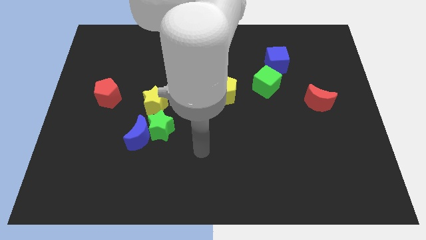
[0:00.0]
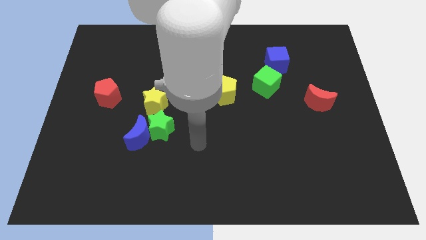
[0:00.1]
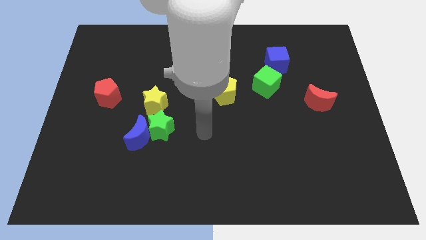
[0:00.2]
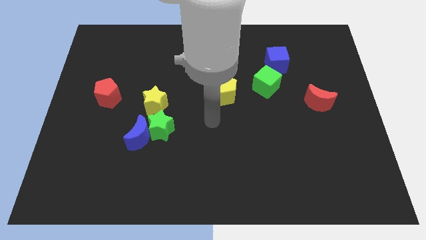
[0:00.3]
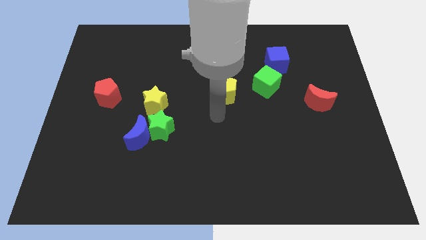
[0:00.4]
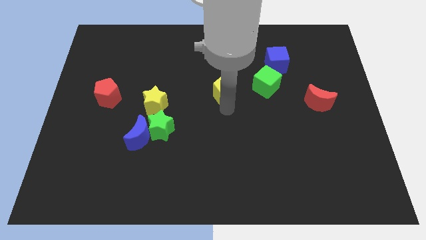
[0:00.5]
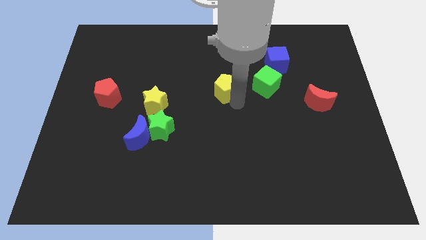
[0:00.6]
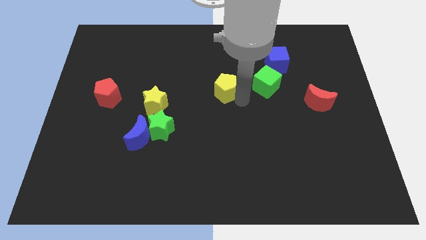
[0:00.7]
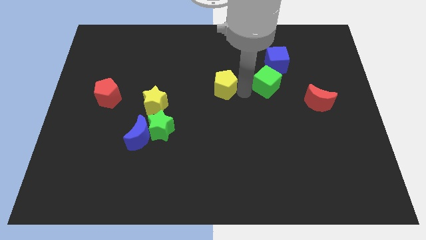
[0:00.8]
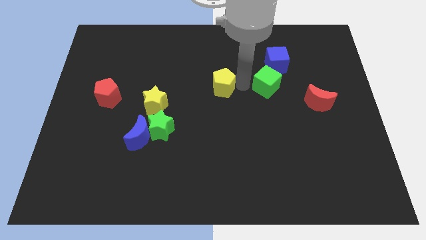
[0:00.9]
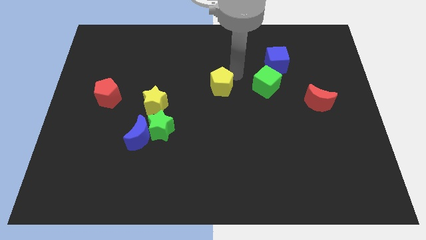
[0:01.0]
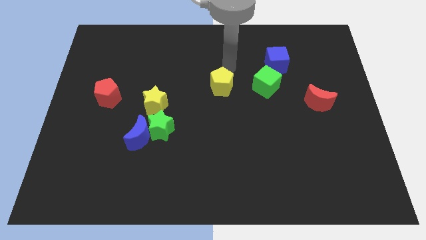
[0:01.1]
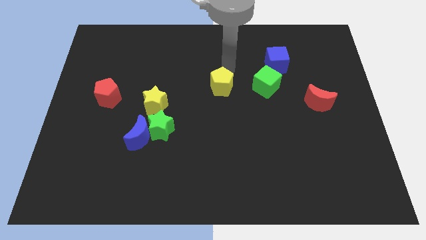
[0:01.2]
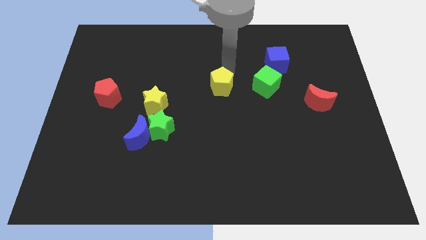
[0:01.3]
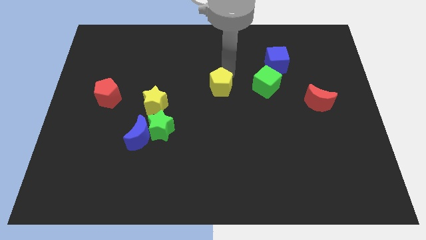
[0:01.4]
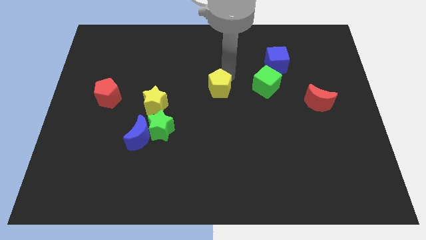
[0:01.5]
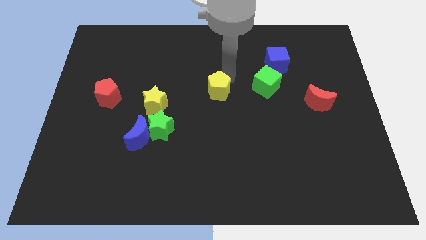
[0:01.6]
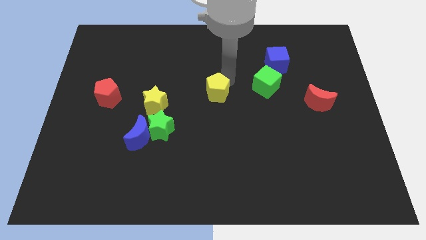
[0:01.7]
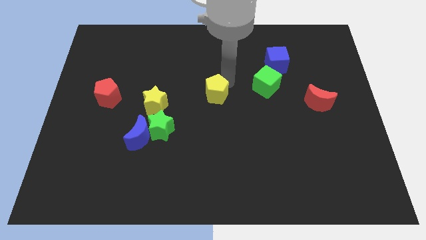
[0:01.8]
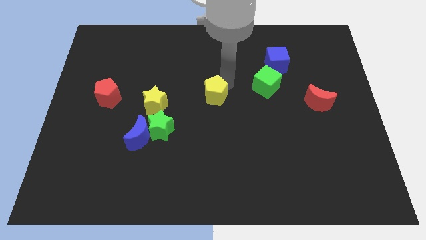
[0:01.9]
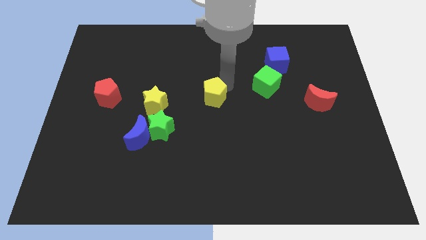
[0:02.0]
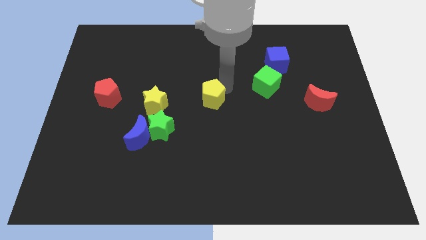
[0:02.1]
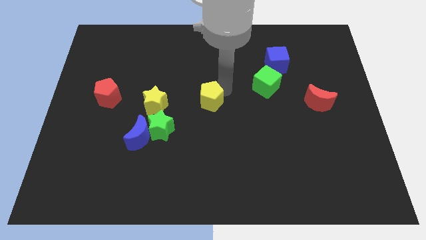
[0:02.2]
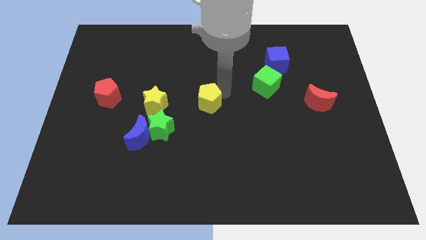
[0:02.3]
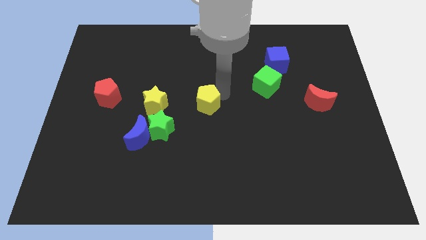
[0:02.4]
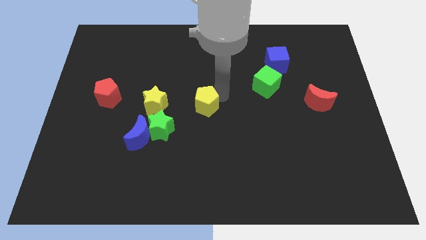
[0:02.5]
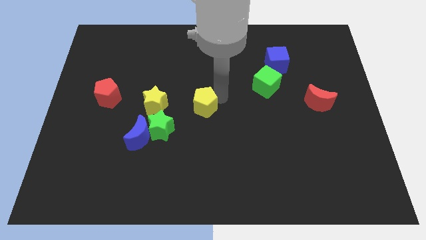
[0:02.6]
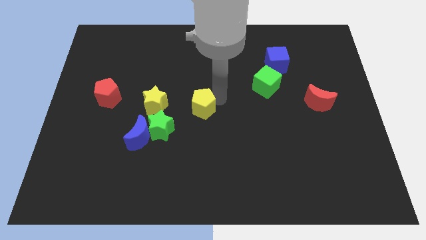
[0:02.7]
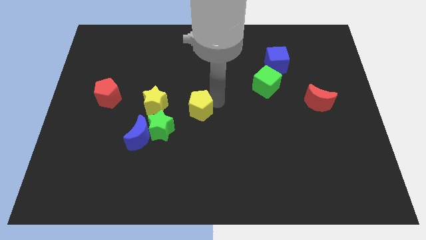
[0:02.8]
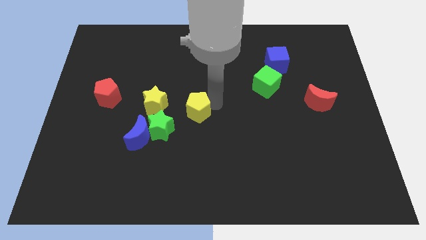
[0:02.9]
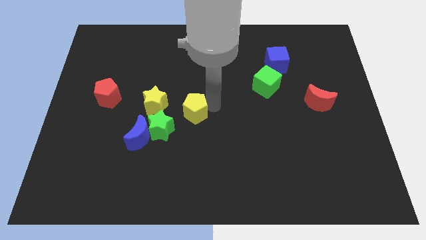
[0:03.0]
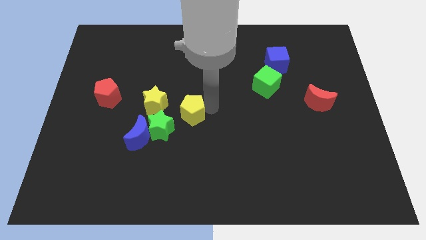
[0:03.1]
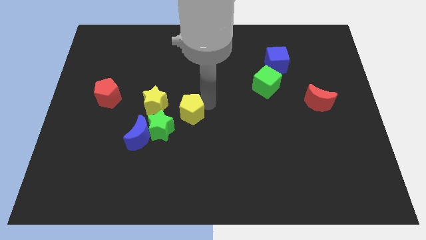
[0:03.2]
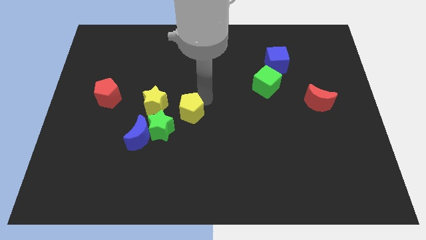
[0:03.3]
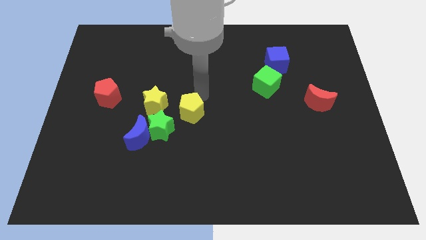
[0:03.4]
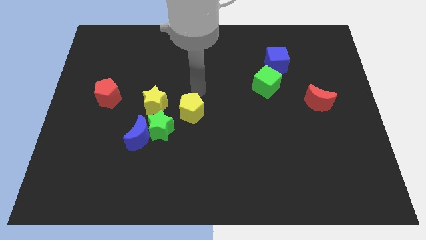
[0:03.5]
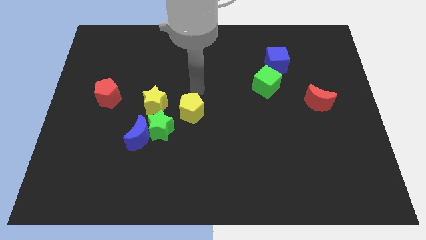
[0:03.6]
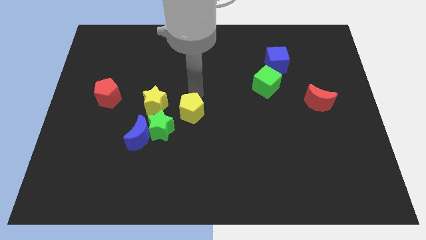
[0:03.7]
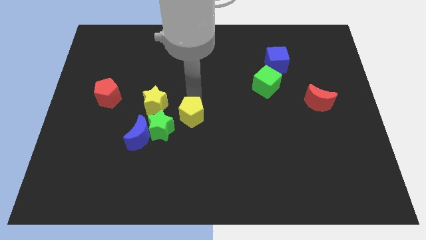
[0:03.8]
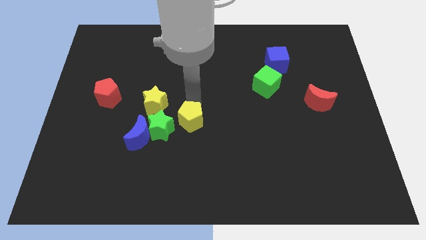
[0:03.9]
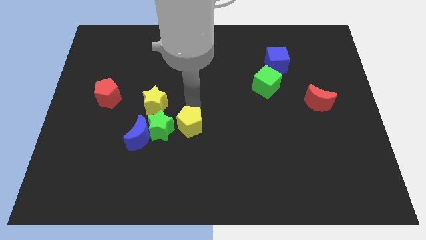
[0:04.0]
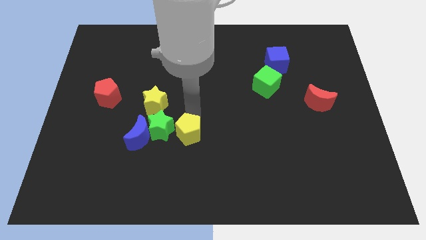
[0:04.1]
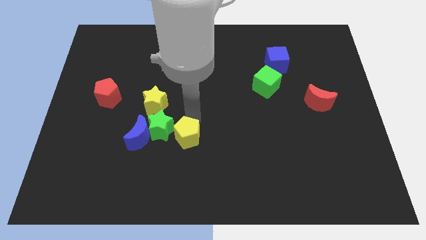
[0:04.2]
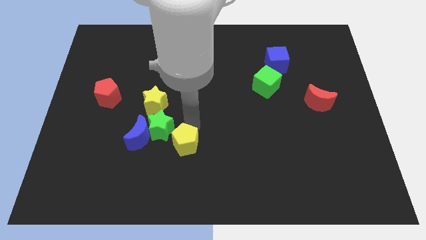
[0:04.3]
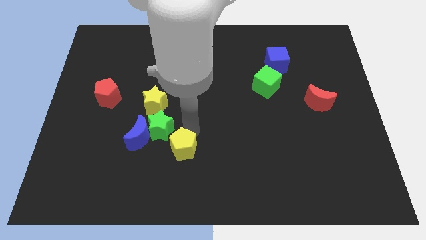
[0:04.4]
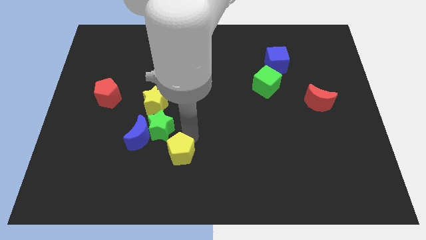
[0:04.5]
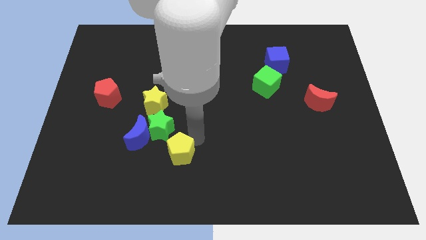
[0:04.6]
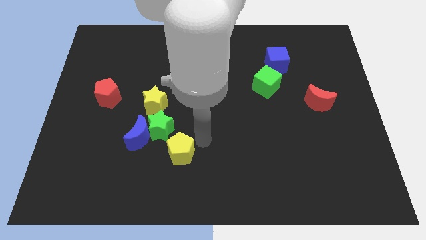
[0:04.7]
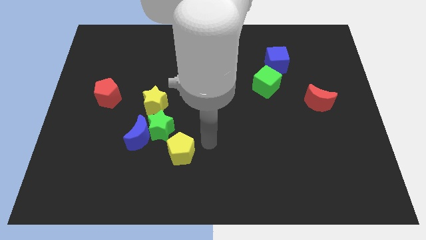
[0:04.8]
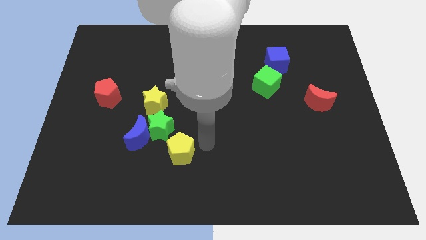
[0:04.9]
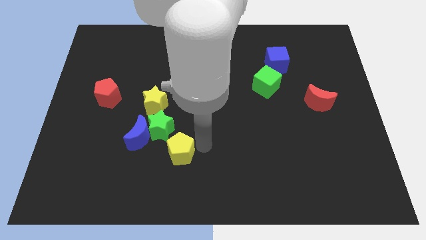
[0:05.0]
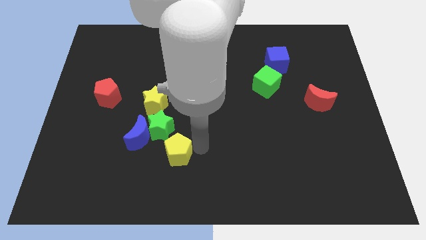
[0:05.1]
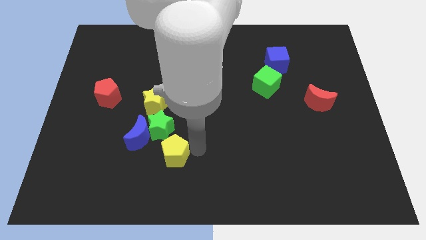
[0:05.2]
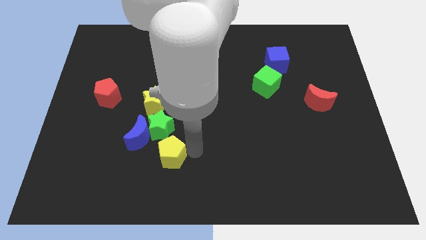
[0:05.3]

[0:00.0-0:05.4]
push the yellow pentagon downwards and left diagonally

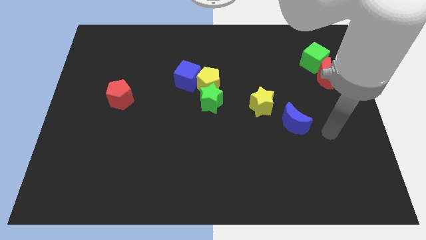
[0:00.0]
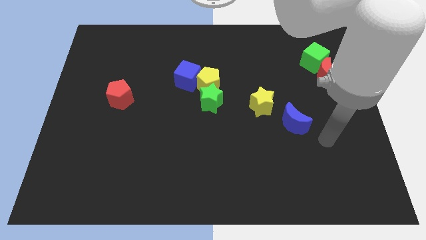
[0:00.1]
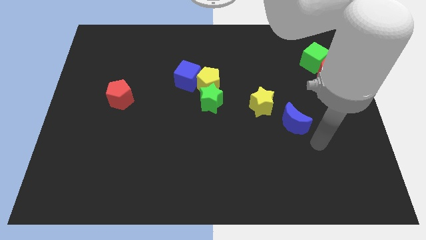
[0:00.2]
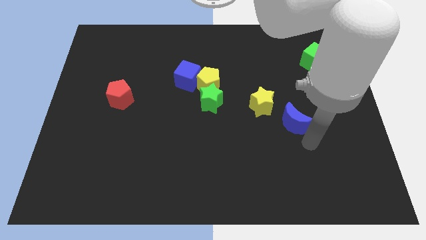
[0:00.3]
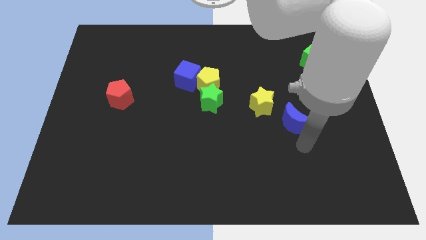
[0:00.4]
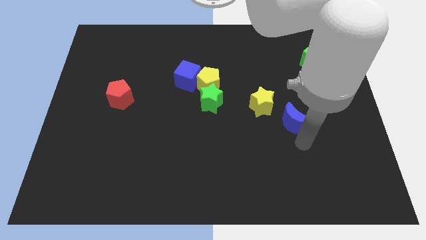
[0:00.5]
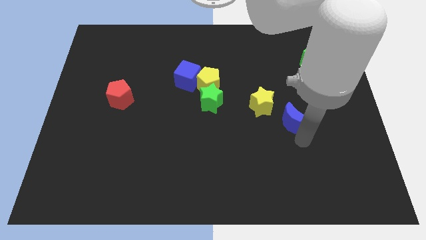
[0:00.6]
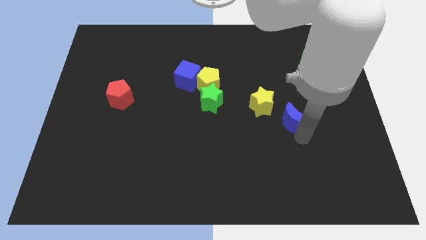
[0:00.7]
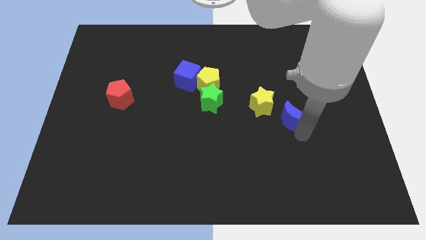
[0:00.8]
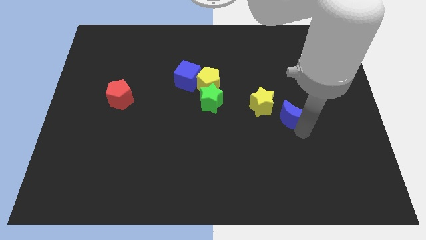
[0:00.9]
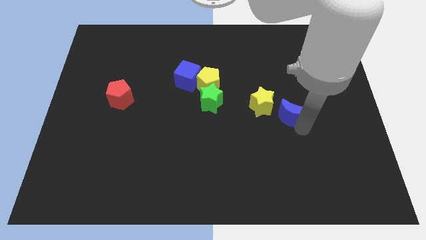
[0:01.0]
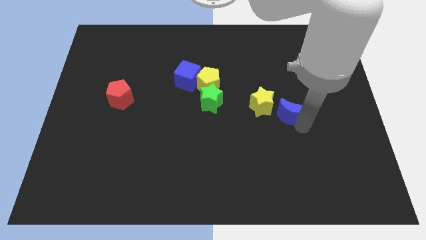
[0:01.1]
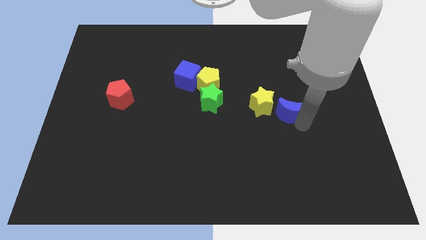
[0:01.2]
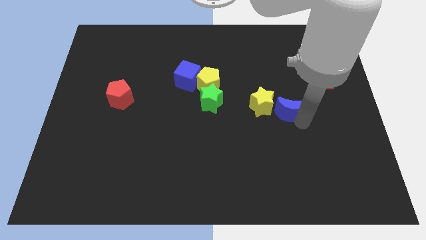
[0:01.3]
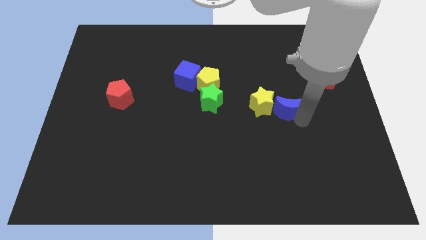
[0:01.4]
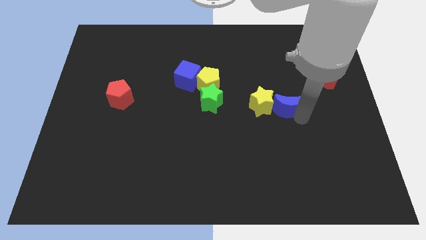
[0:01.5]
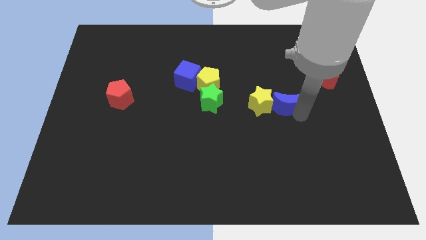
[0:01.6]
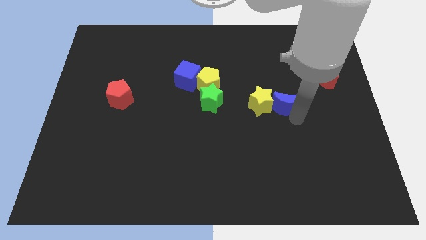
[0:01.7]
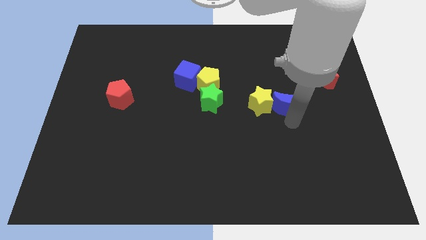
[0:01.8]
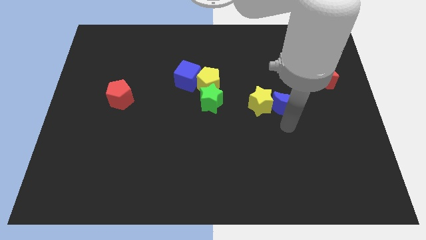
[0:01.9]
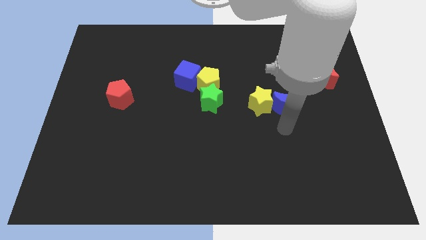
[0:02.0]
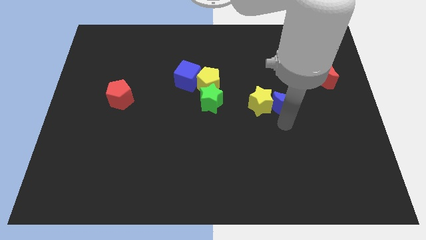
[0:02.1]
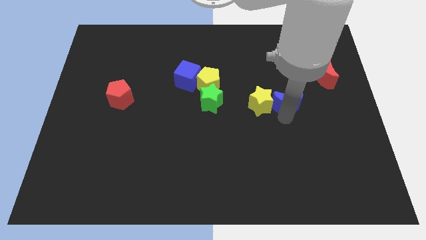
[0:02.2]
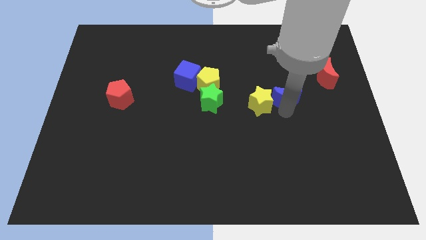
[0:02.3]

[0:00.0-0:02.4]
push the blue moon a little bit upwards

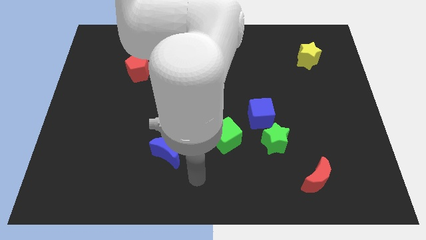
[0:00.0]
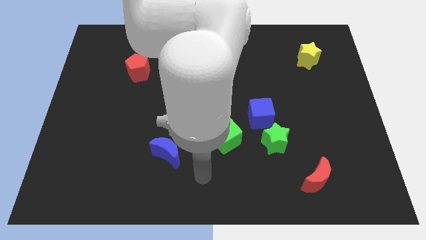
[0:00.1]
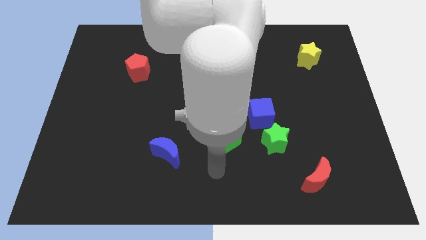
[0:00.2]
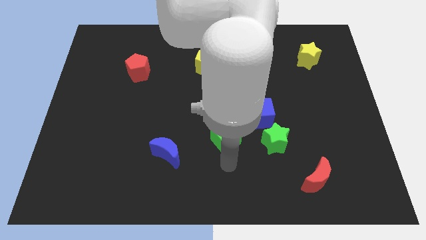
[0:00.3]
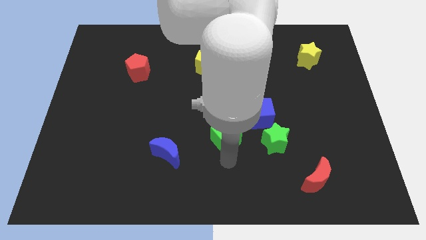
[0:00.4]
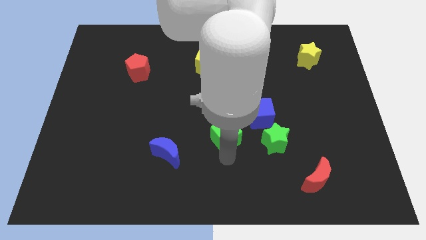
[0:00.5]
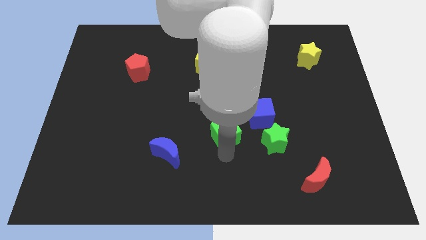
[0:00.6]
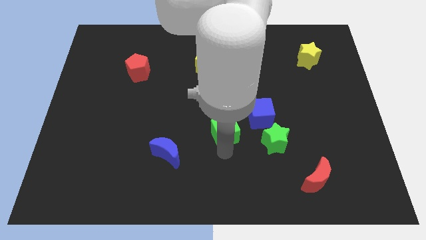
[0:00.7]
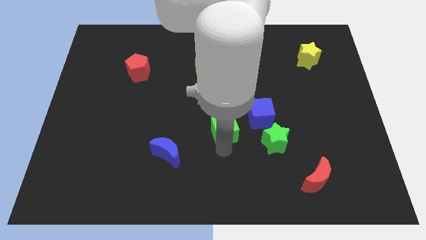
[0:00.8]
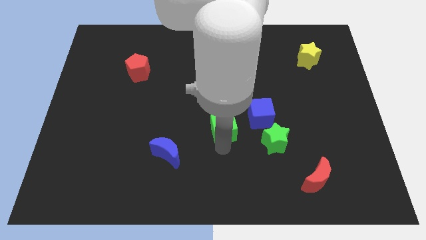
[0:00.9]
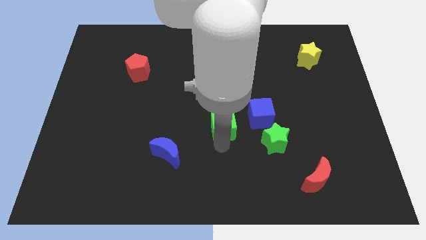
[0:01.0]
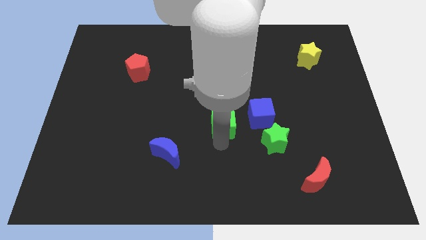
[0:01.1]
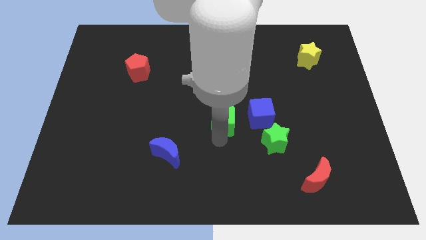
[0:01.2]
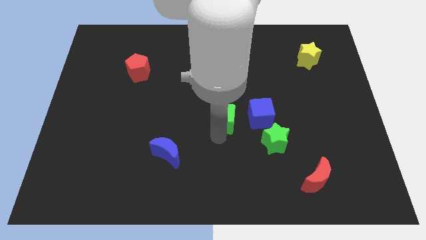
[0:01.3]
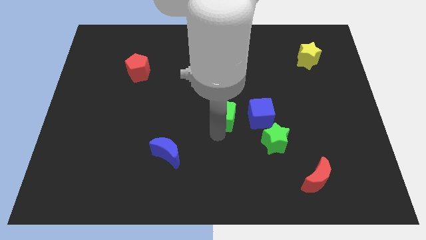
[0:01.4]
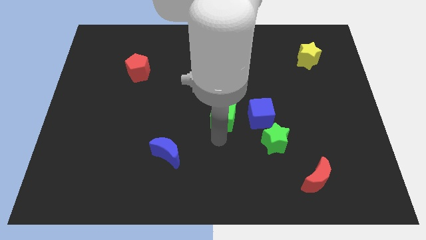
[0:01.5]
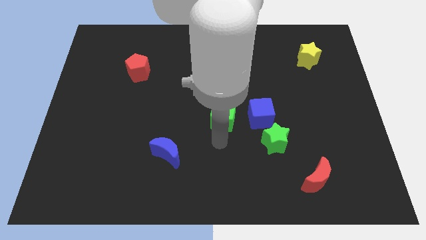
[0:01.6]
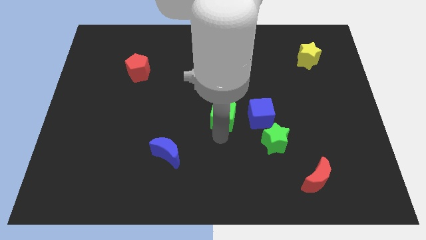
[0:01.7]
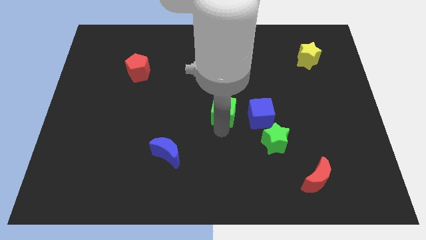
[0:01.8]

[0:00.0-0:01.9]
slide the green cube a little up
